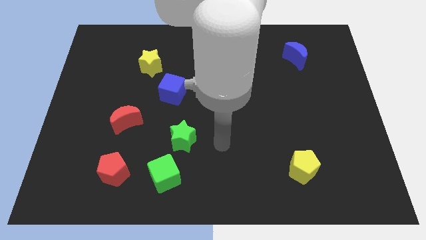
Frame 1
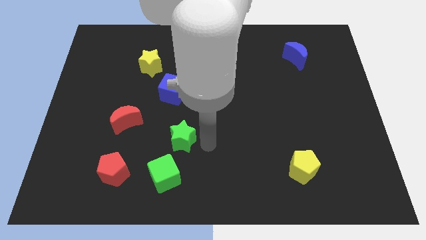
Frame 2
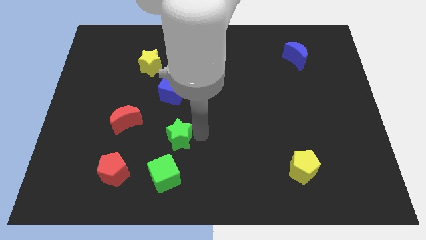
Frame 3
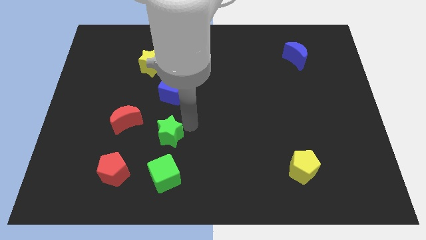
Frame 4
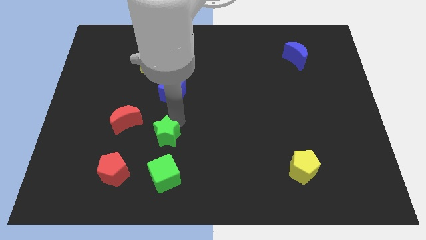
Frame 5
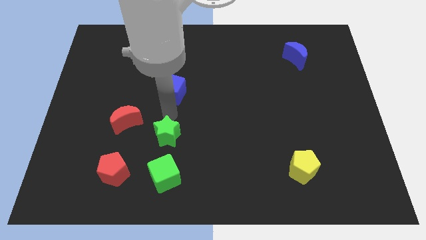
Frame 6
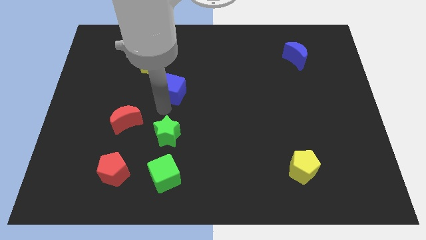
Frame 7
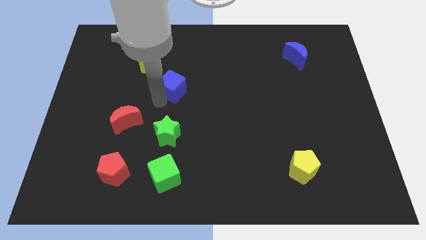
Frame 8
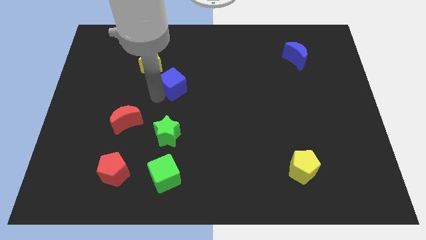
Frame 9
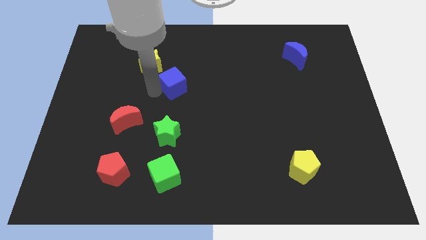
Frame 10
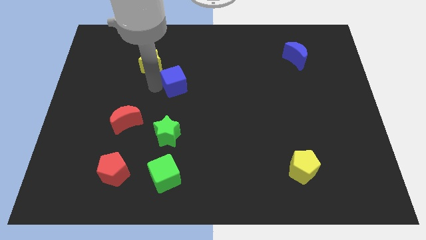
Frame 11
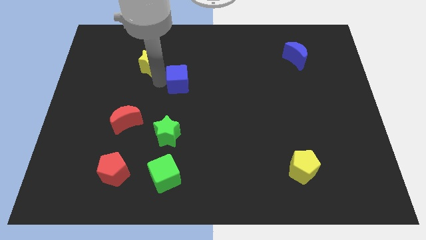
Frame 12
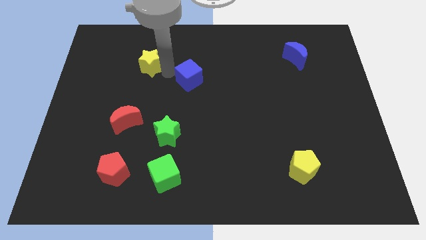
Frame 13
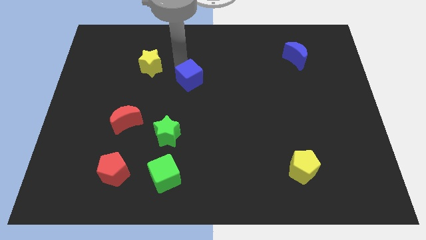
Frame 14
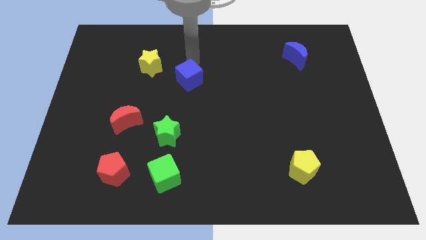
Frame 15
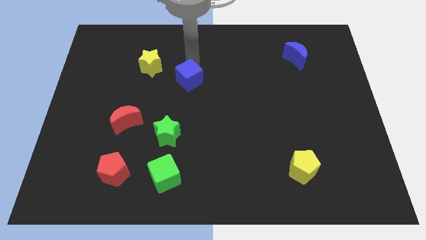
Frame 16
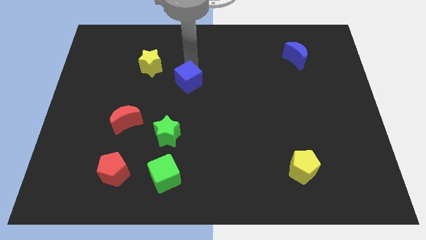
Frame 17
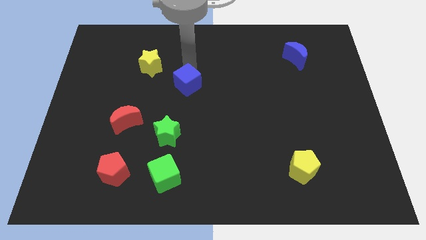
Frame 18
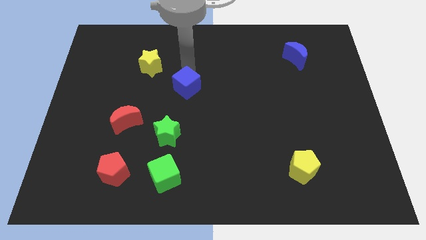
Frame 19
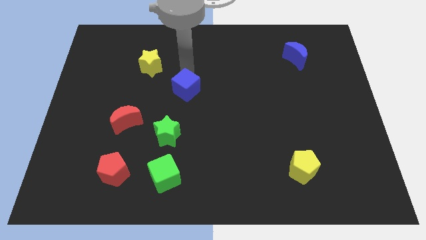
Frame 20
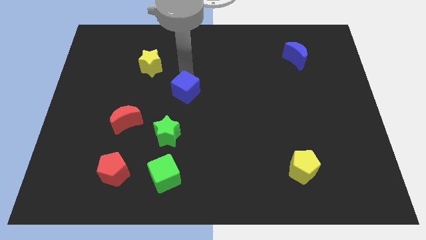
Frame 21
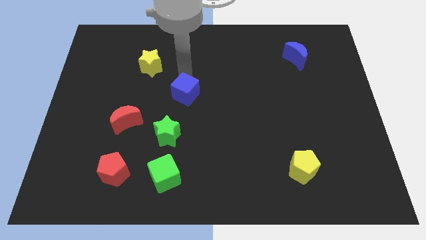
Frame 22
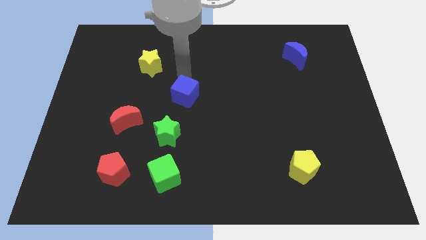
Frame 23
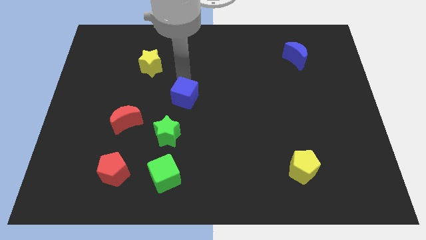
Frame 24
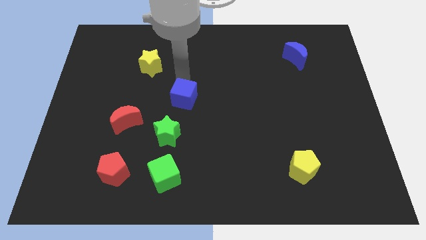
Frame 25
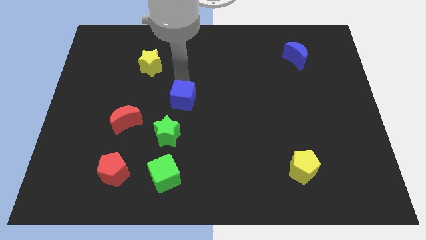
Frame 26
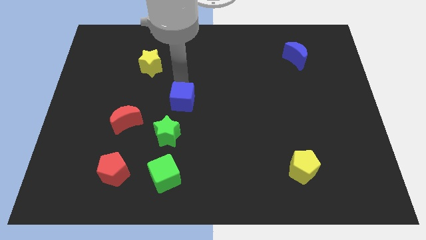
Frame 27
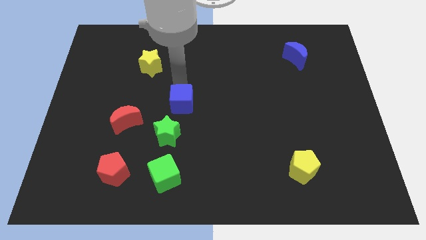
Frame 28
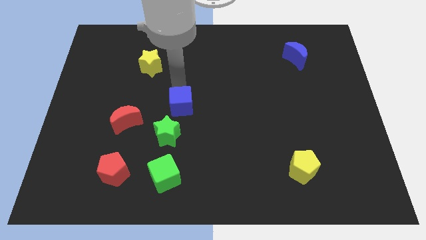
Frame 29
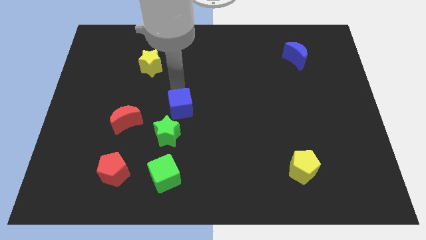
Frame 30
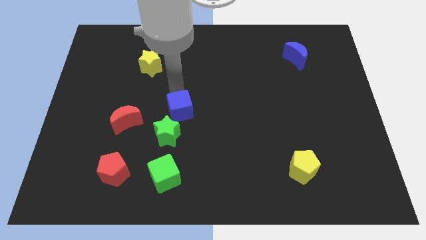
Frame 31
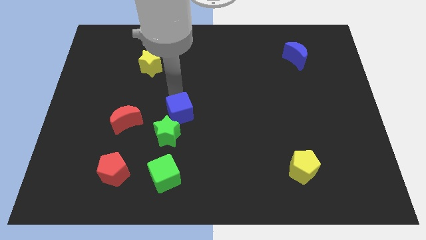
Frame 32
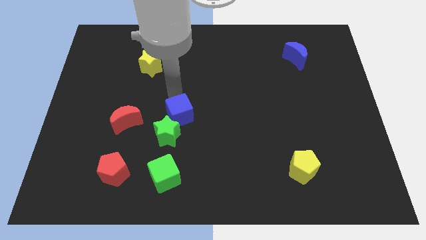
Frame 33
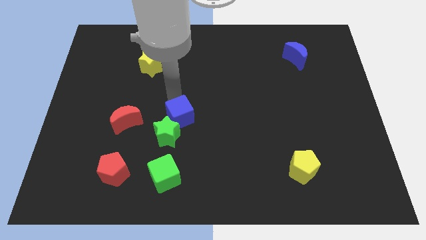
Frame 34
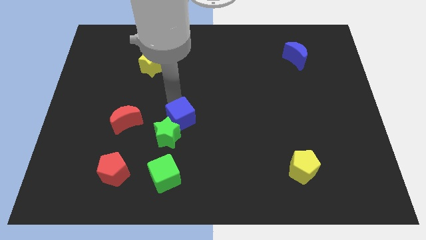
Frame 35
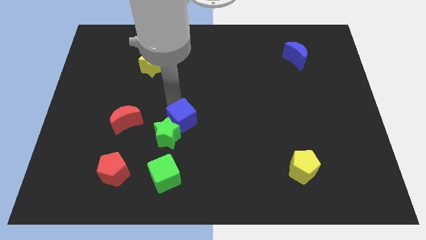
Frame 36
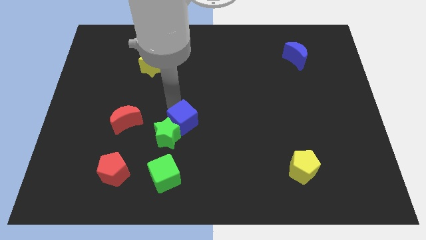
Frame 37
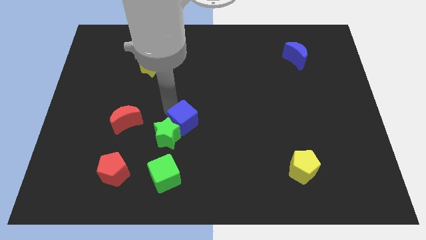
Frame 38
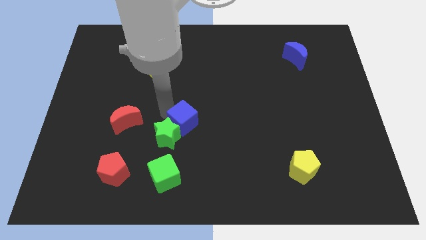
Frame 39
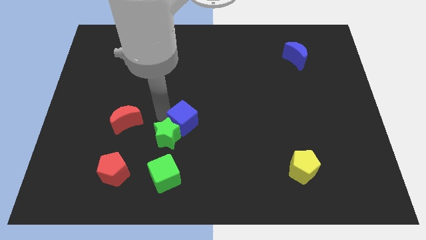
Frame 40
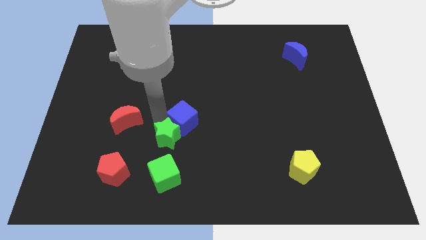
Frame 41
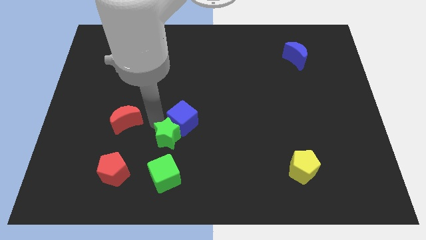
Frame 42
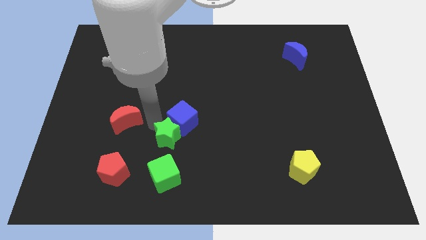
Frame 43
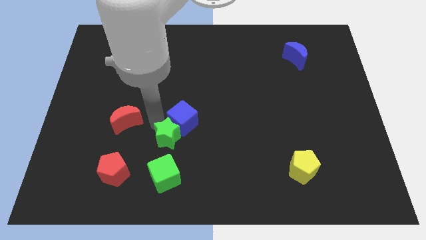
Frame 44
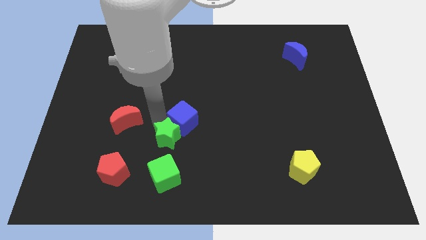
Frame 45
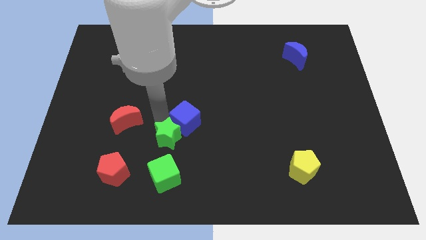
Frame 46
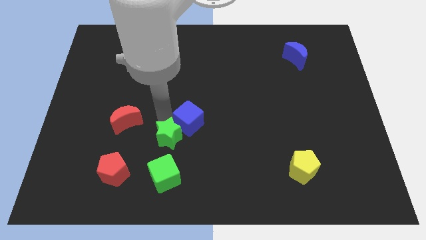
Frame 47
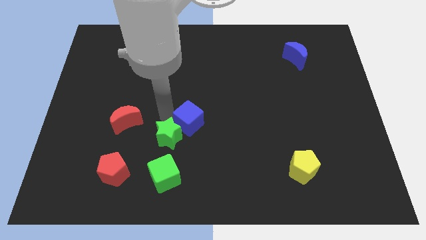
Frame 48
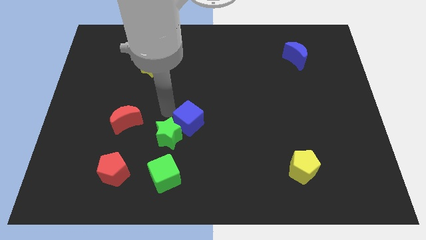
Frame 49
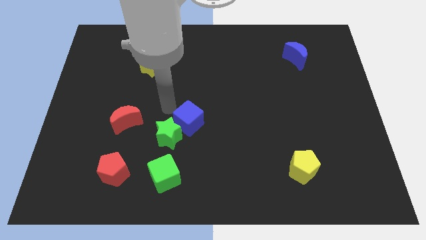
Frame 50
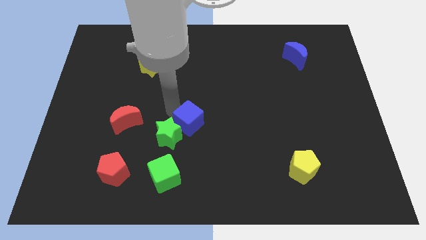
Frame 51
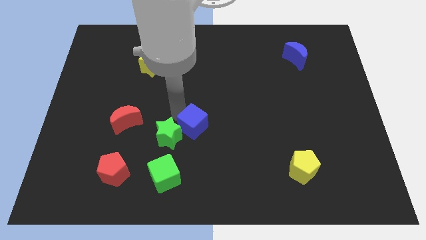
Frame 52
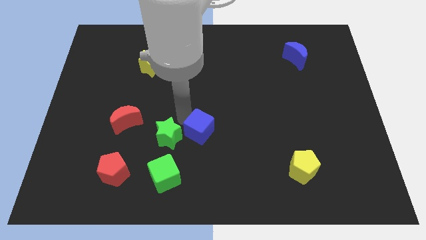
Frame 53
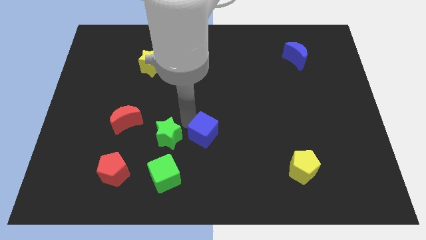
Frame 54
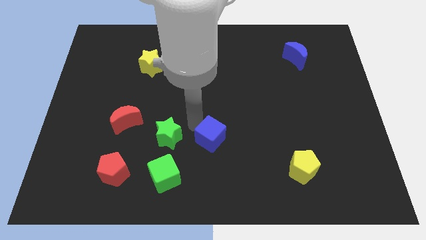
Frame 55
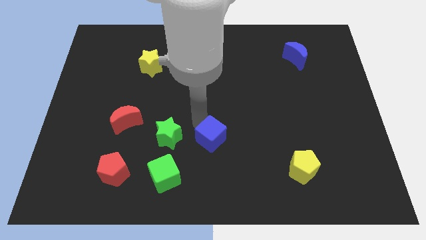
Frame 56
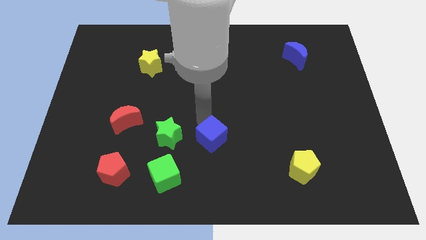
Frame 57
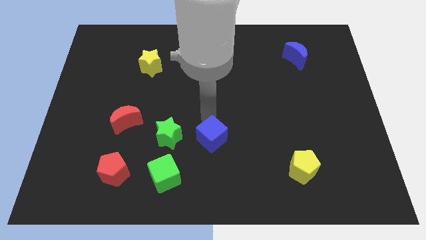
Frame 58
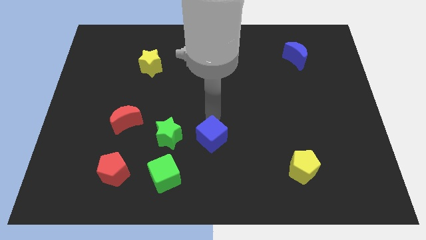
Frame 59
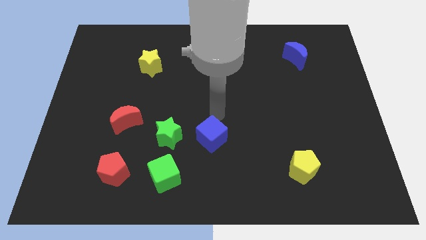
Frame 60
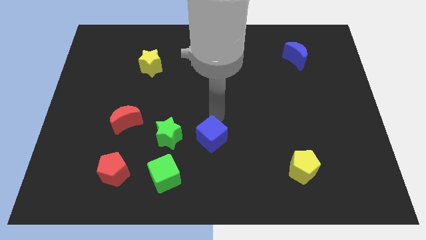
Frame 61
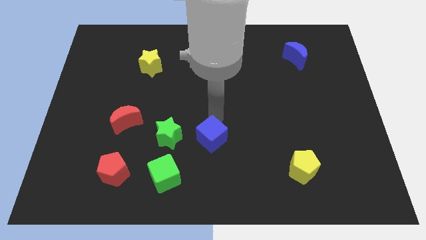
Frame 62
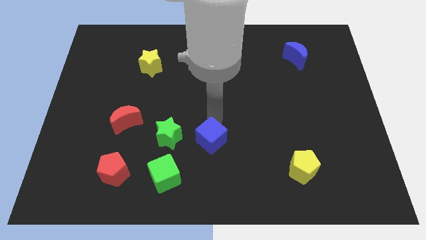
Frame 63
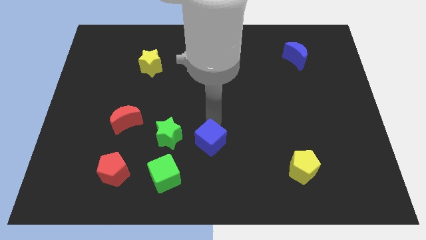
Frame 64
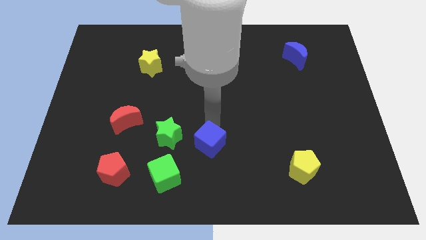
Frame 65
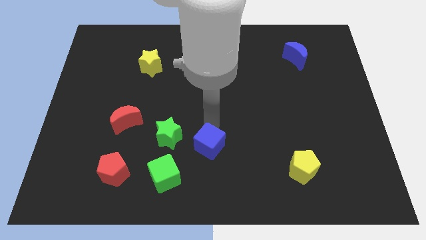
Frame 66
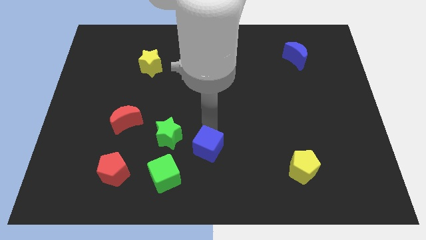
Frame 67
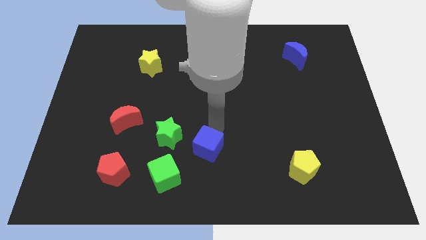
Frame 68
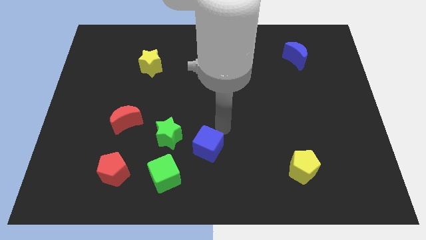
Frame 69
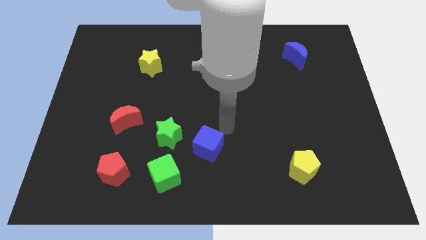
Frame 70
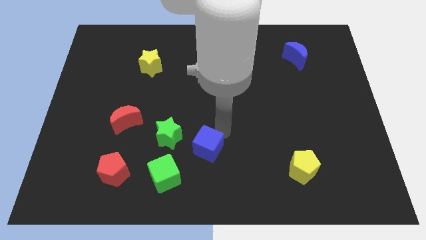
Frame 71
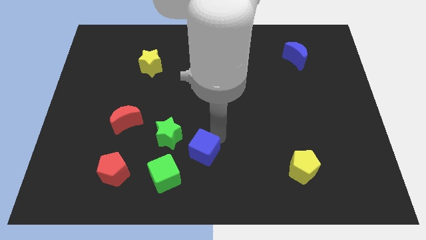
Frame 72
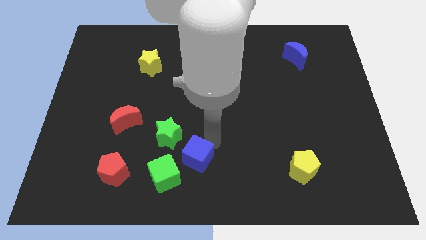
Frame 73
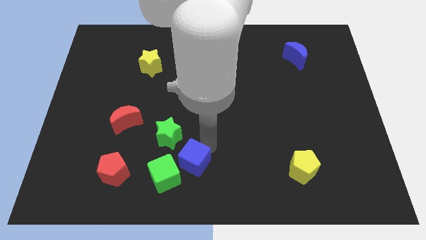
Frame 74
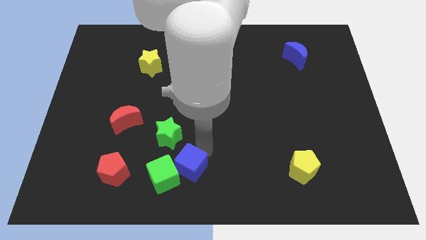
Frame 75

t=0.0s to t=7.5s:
slide the blue cube to the right of the red pentagon
